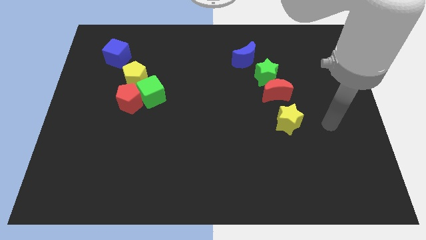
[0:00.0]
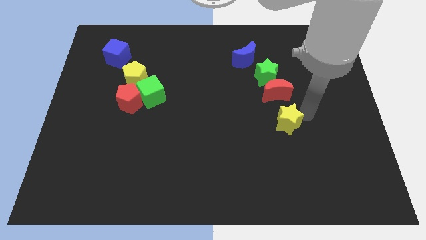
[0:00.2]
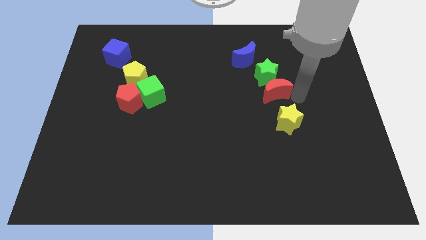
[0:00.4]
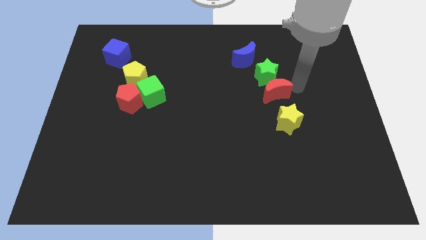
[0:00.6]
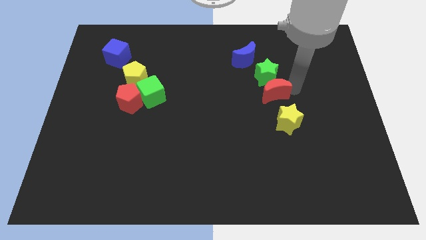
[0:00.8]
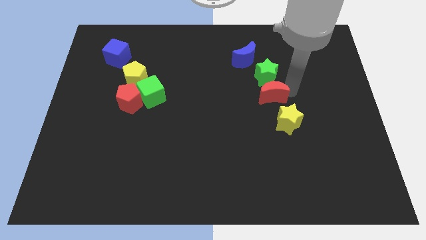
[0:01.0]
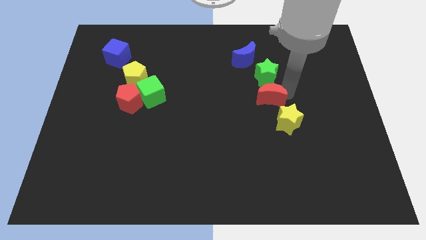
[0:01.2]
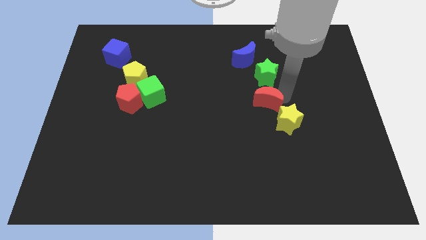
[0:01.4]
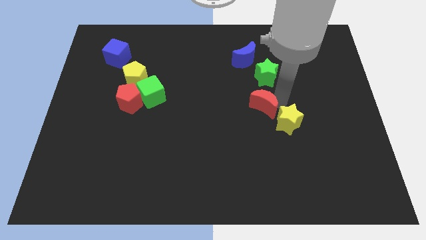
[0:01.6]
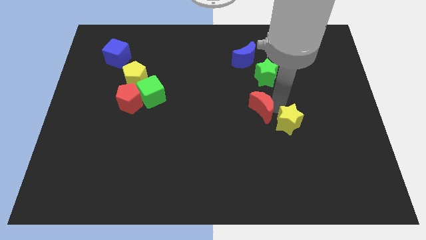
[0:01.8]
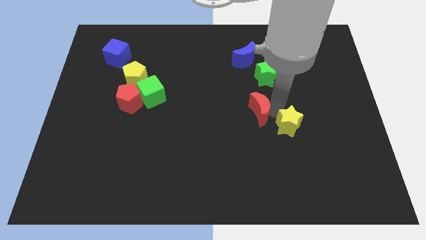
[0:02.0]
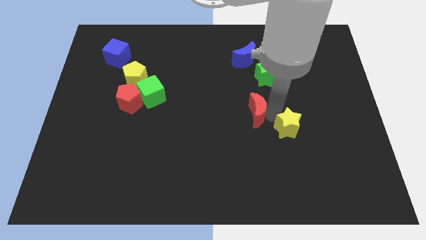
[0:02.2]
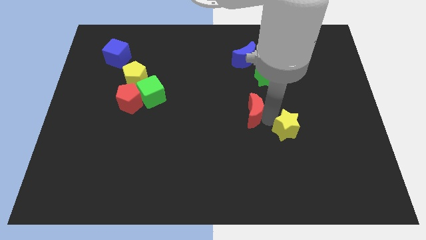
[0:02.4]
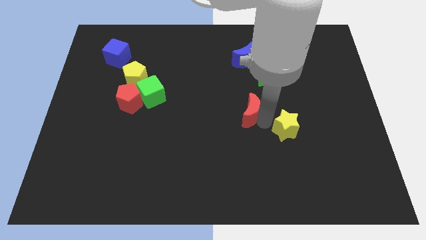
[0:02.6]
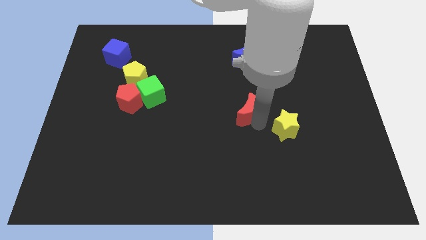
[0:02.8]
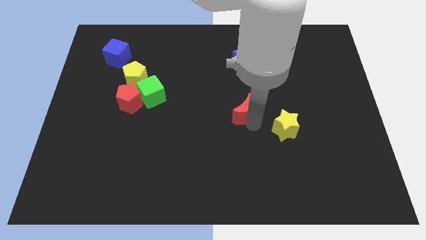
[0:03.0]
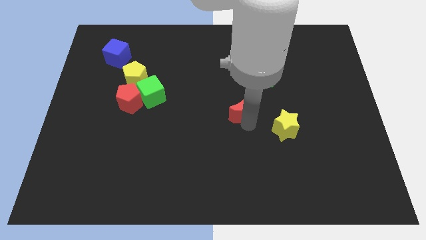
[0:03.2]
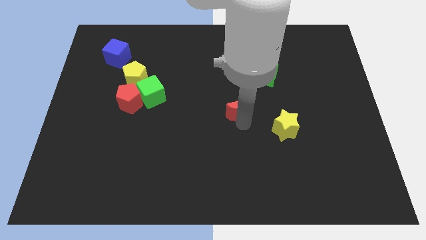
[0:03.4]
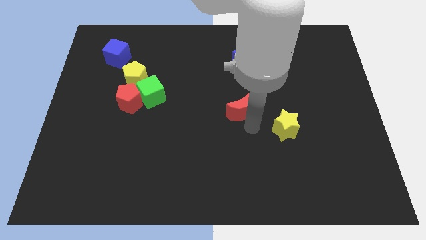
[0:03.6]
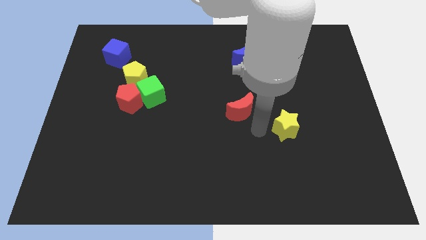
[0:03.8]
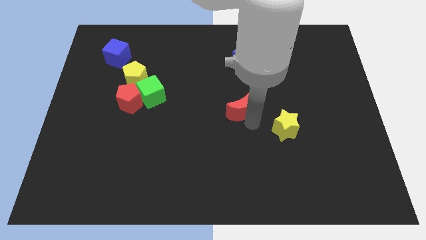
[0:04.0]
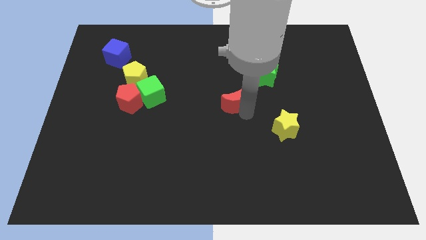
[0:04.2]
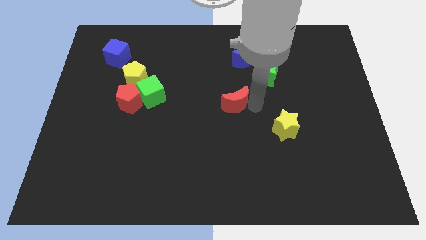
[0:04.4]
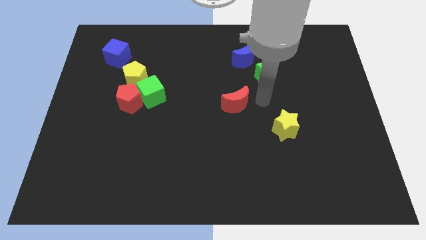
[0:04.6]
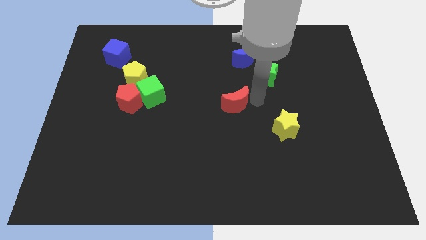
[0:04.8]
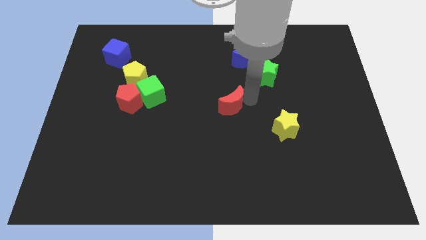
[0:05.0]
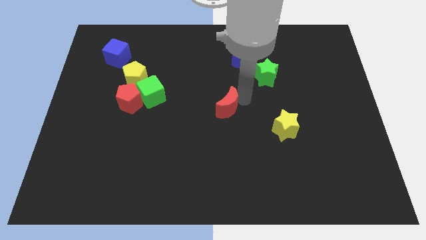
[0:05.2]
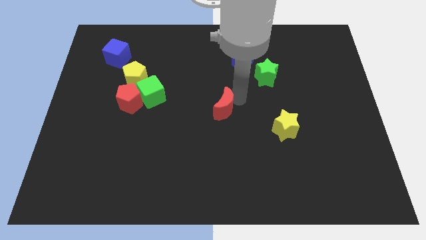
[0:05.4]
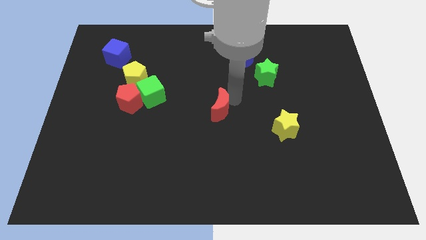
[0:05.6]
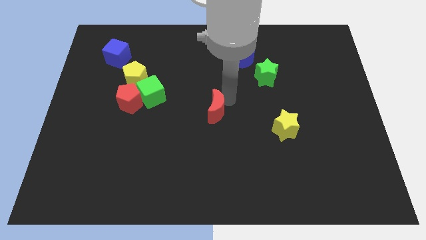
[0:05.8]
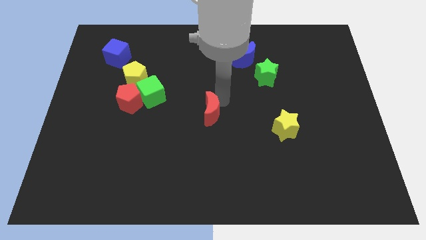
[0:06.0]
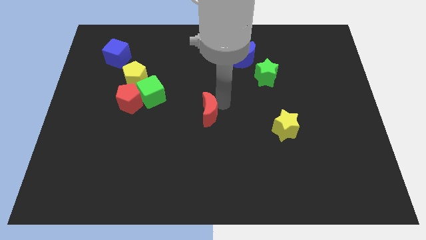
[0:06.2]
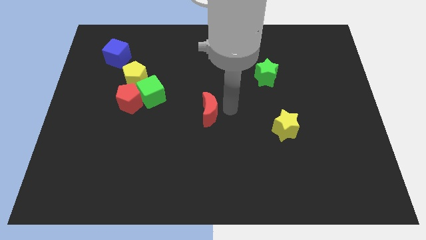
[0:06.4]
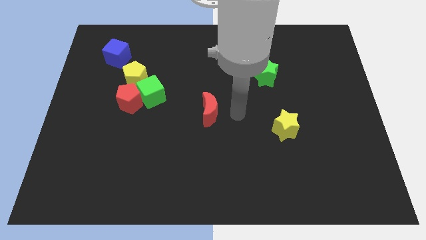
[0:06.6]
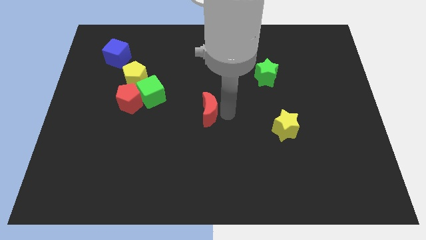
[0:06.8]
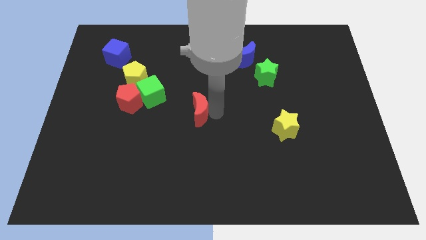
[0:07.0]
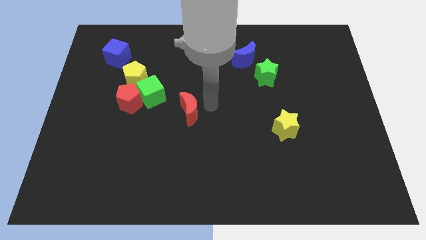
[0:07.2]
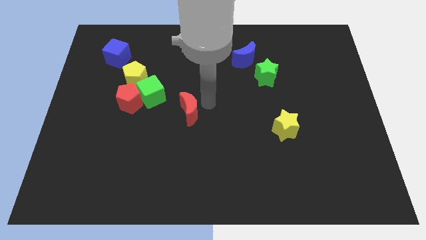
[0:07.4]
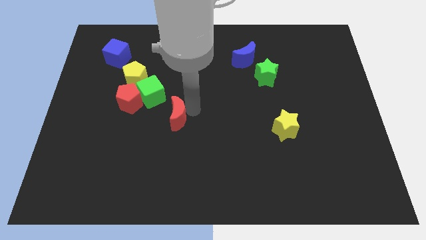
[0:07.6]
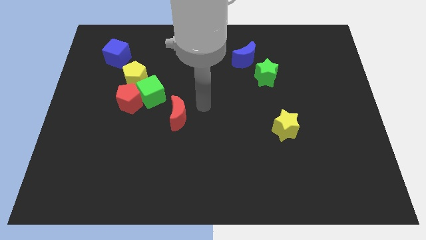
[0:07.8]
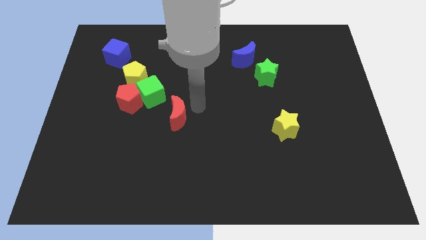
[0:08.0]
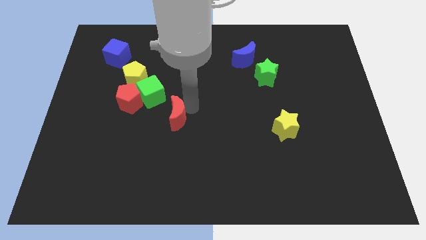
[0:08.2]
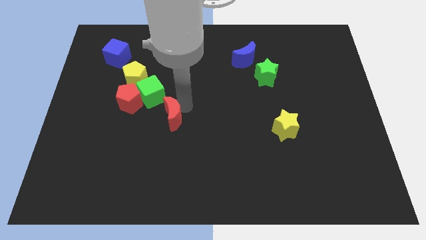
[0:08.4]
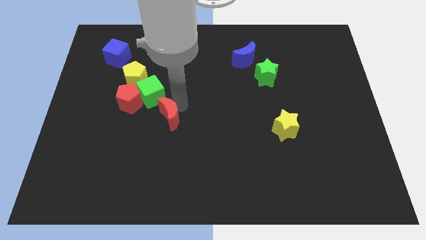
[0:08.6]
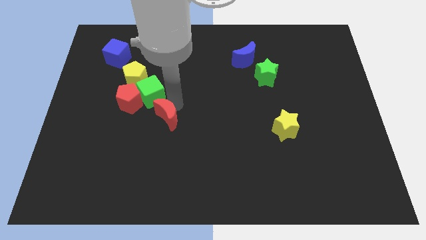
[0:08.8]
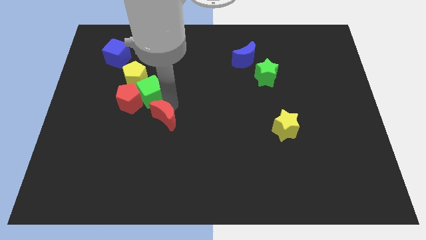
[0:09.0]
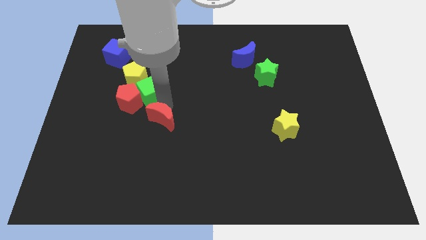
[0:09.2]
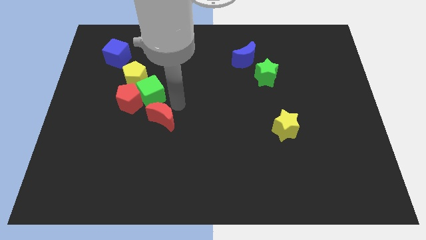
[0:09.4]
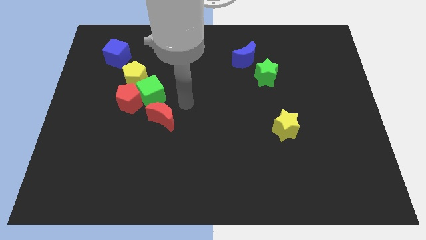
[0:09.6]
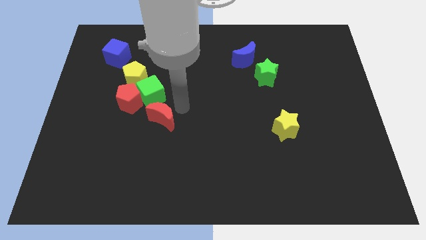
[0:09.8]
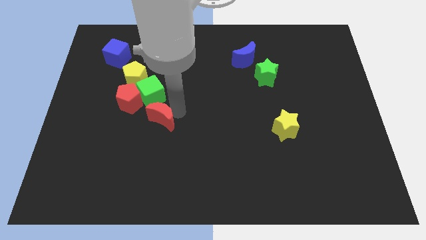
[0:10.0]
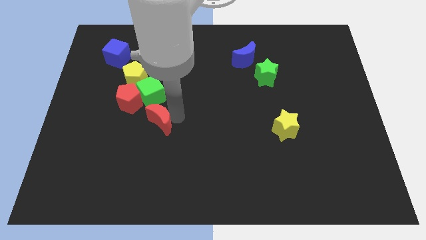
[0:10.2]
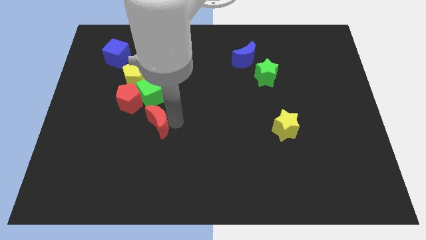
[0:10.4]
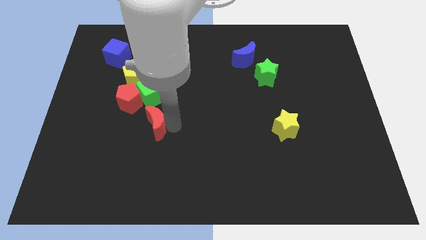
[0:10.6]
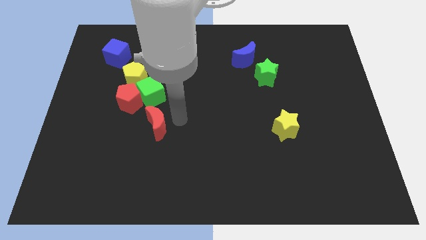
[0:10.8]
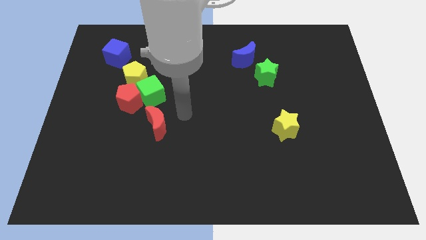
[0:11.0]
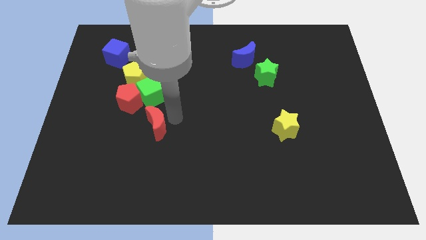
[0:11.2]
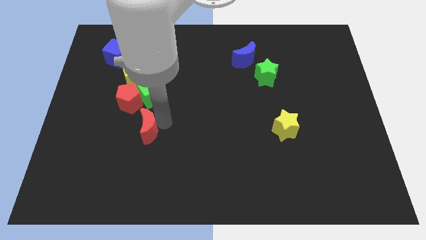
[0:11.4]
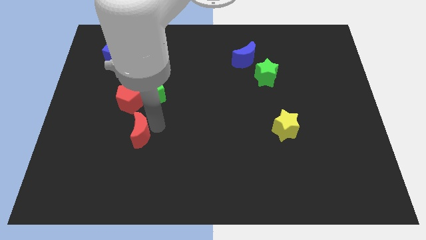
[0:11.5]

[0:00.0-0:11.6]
put the red moon below the red pentagon

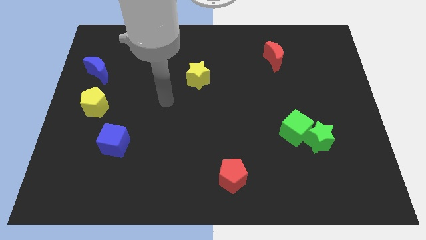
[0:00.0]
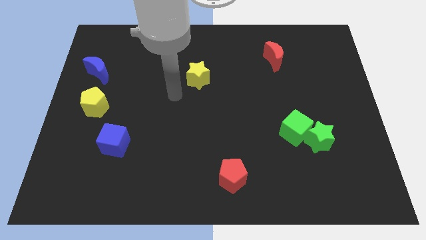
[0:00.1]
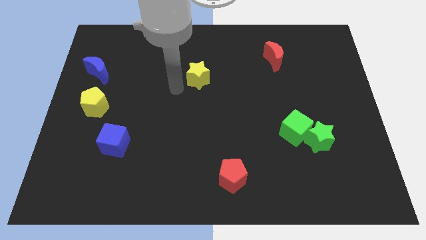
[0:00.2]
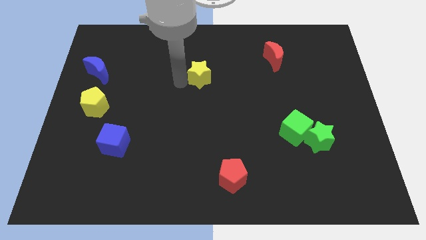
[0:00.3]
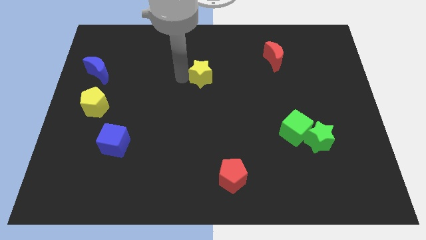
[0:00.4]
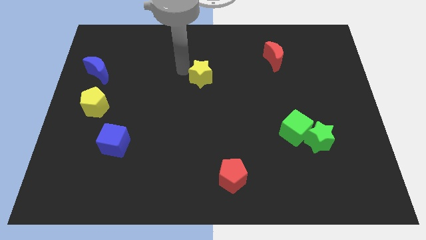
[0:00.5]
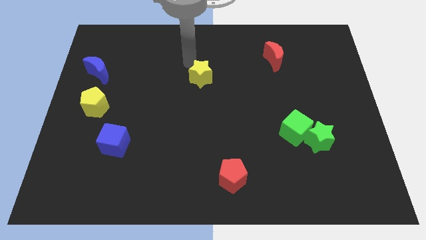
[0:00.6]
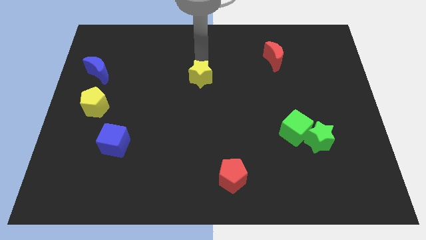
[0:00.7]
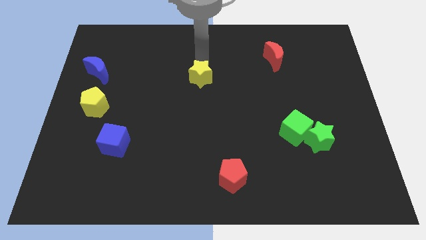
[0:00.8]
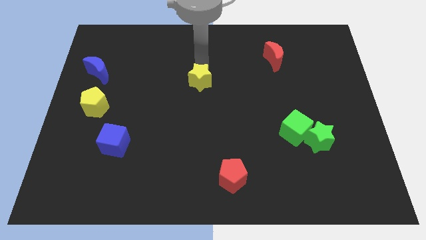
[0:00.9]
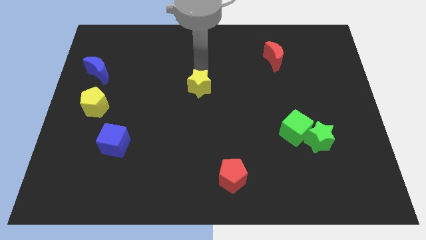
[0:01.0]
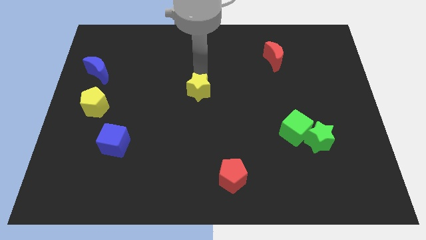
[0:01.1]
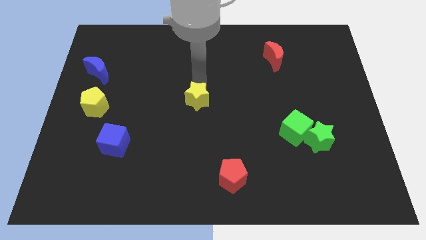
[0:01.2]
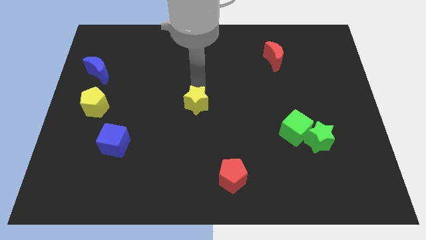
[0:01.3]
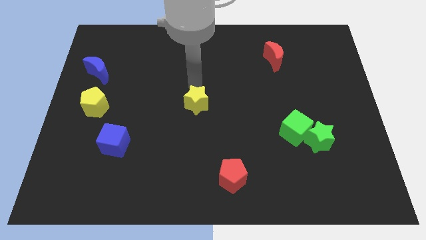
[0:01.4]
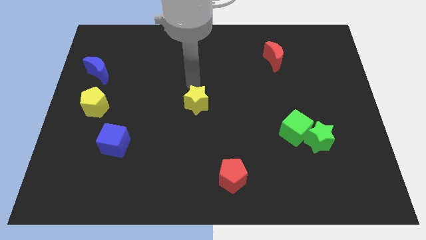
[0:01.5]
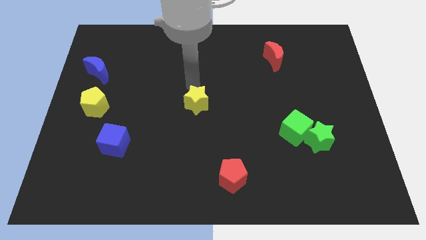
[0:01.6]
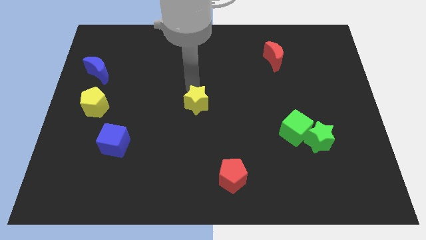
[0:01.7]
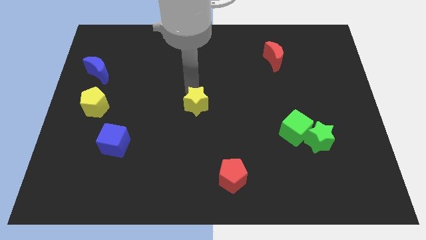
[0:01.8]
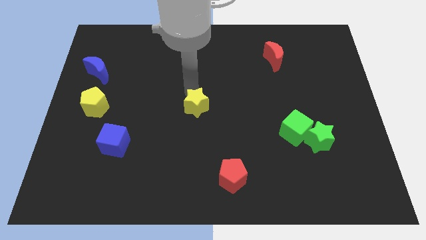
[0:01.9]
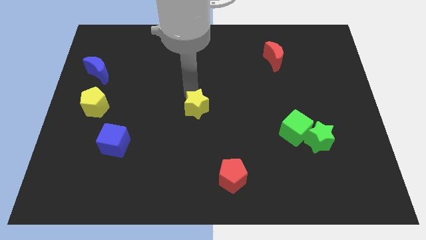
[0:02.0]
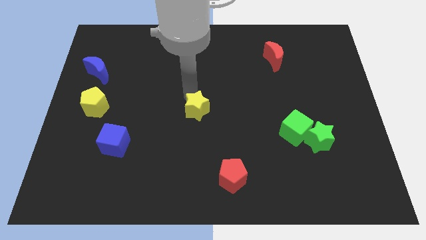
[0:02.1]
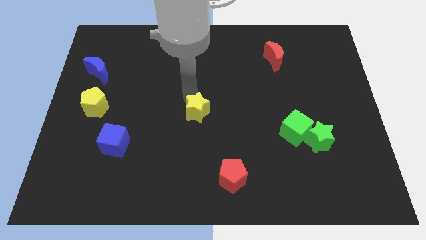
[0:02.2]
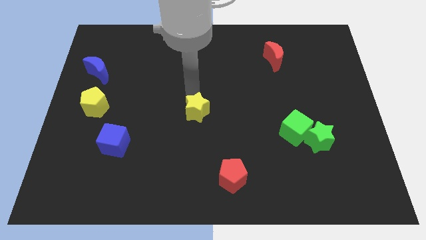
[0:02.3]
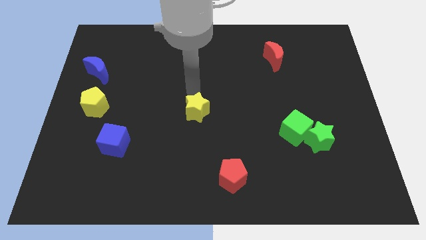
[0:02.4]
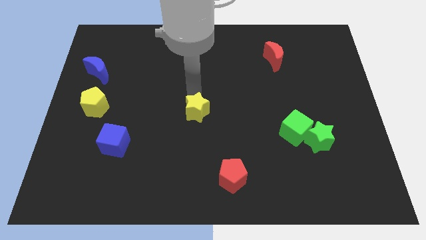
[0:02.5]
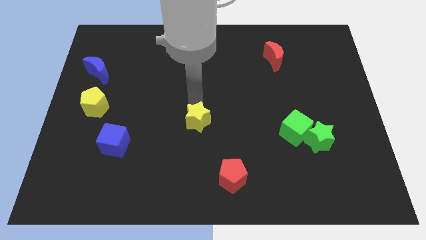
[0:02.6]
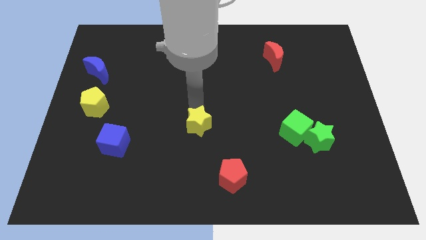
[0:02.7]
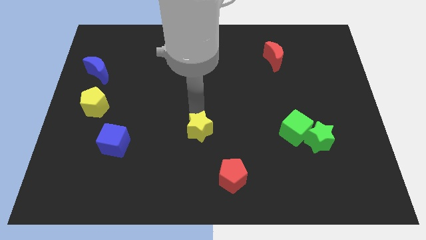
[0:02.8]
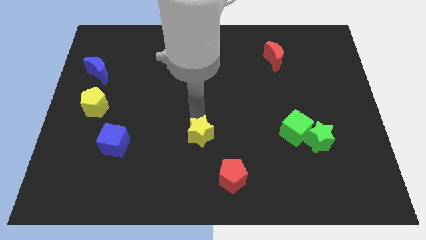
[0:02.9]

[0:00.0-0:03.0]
put the yellow star to the top left side of the red pentagon
